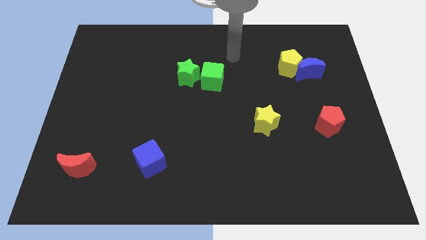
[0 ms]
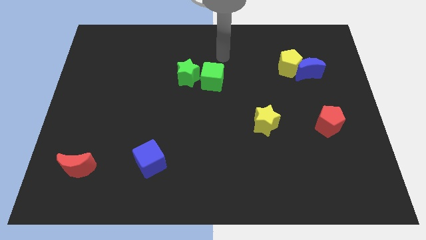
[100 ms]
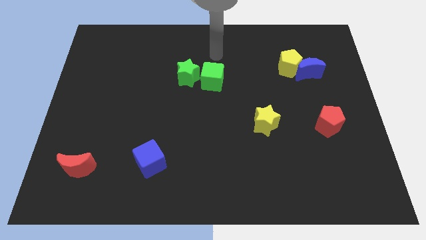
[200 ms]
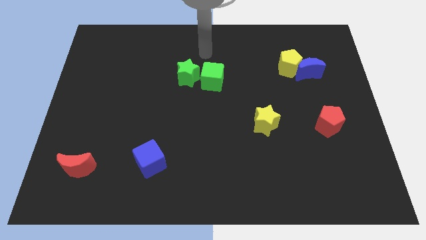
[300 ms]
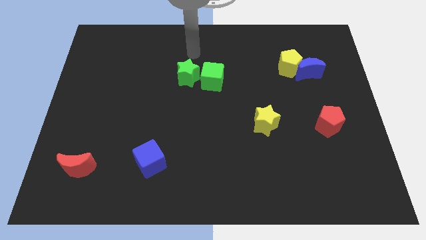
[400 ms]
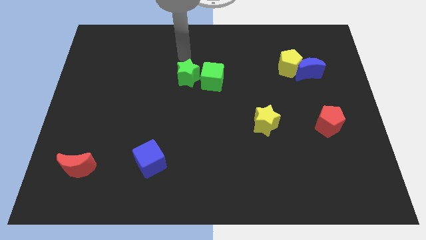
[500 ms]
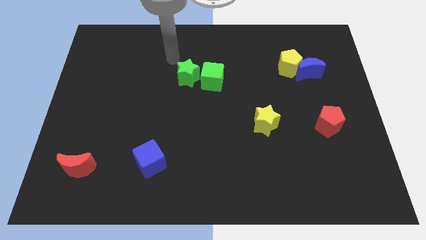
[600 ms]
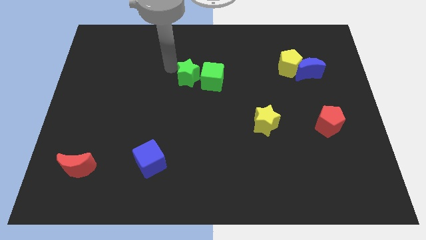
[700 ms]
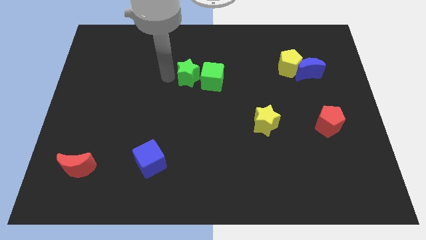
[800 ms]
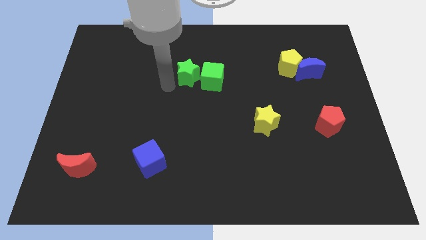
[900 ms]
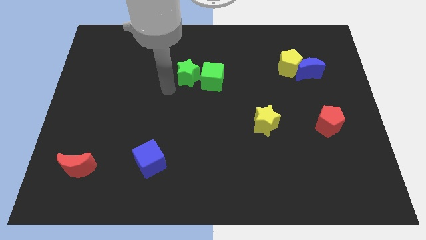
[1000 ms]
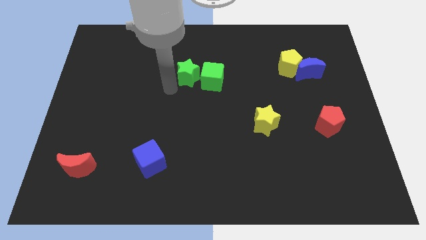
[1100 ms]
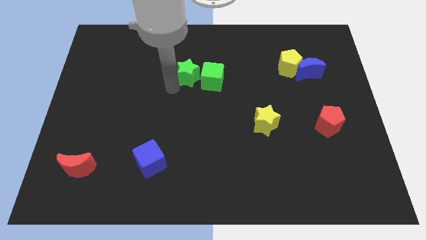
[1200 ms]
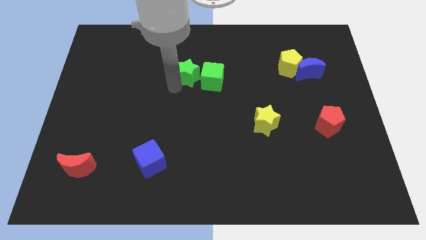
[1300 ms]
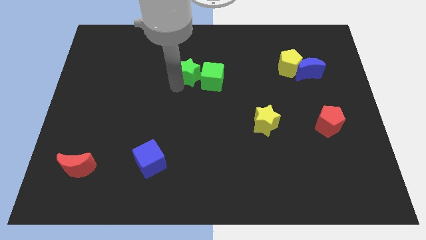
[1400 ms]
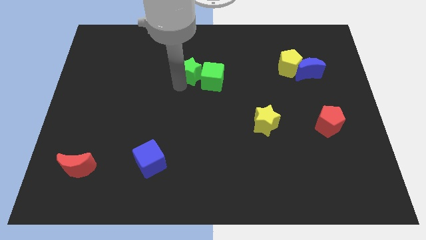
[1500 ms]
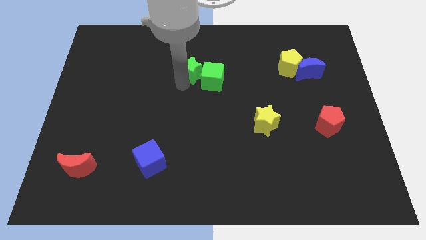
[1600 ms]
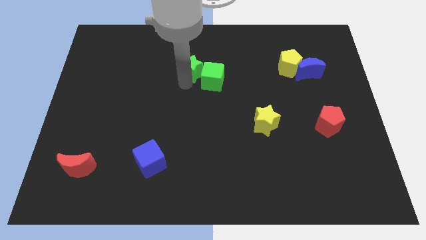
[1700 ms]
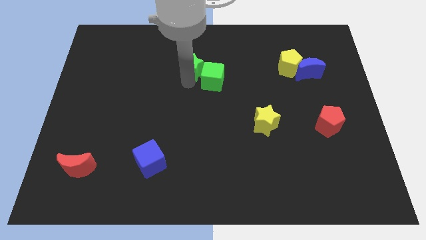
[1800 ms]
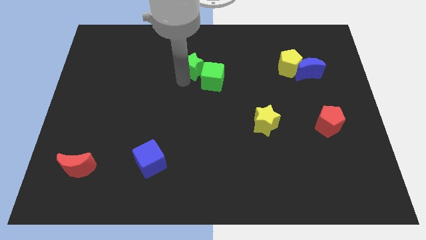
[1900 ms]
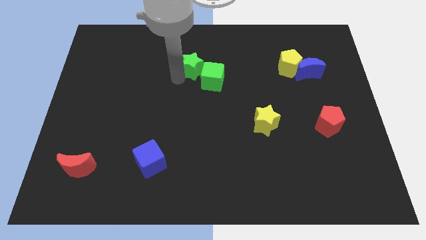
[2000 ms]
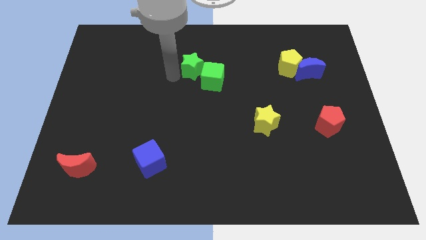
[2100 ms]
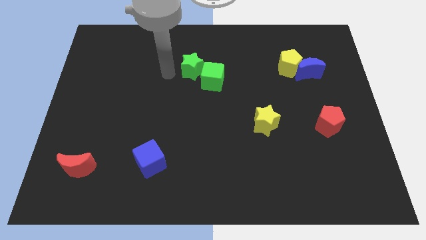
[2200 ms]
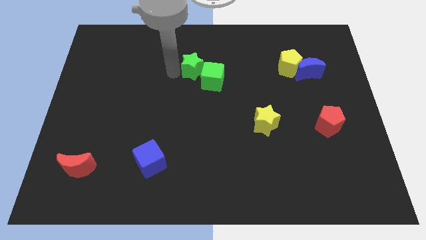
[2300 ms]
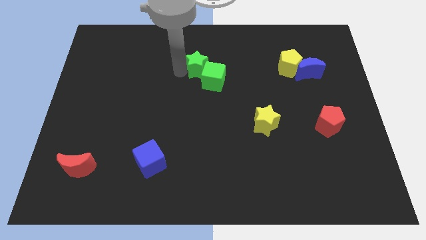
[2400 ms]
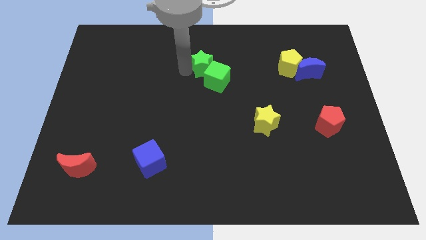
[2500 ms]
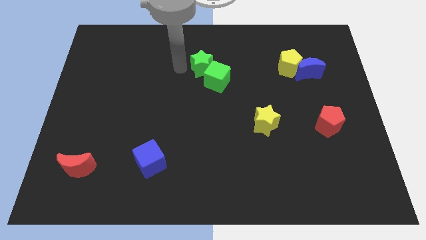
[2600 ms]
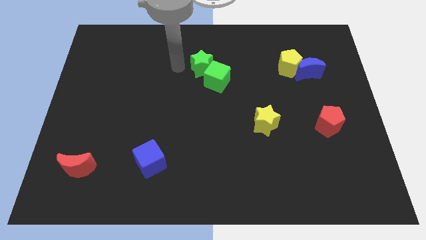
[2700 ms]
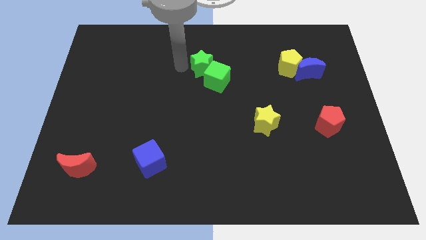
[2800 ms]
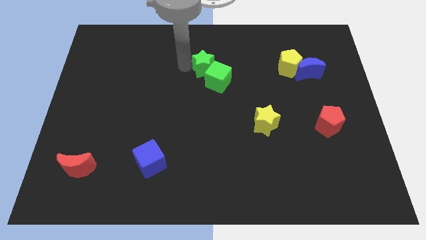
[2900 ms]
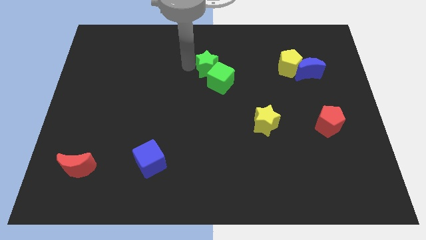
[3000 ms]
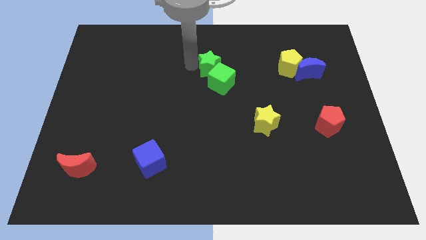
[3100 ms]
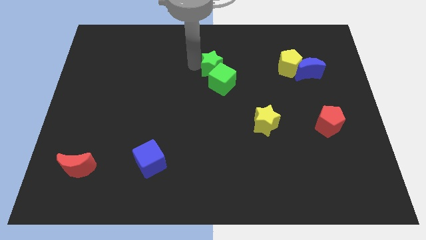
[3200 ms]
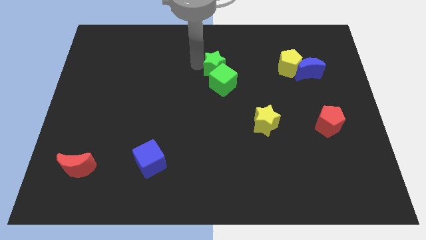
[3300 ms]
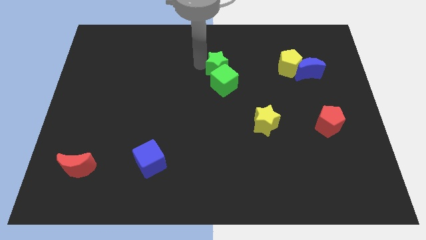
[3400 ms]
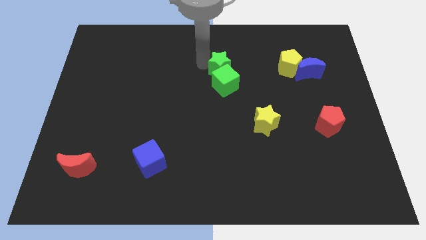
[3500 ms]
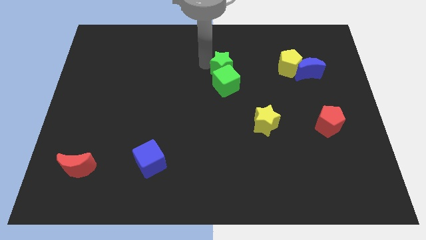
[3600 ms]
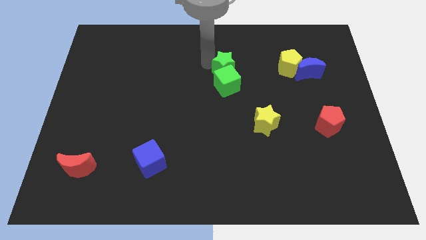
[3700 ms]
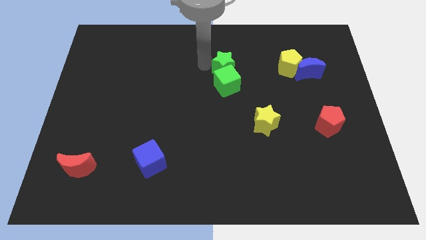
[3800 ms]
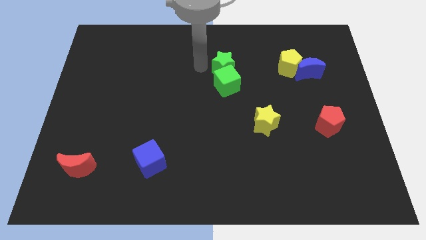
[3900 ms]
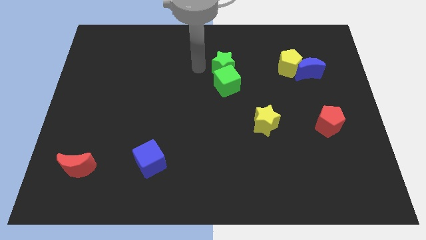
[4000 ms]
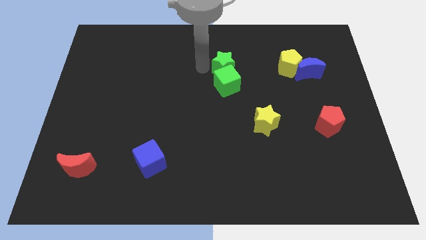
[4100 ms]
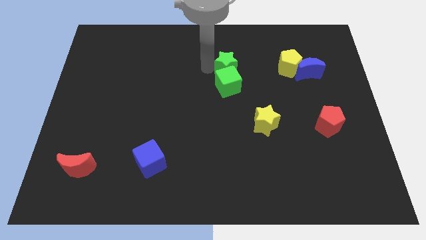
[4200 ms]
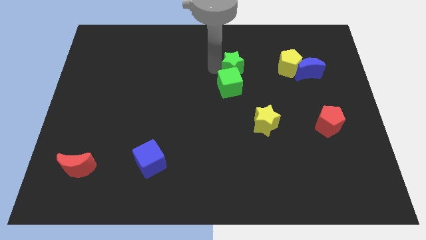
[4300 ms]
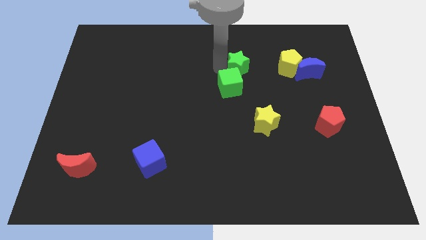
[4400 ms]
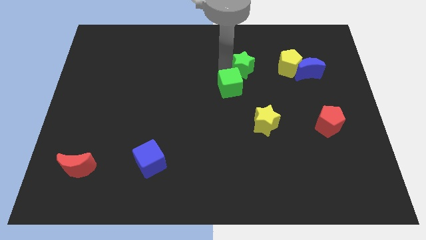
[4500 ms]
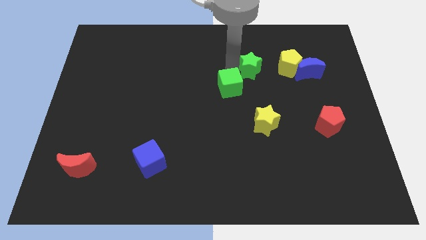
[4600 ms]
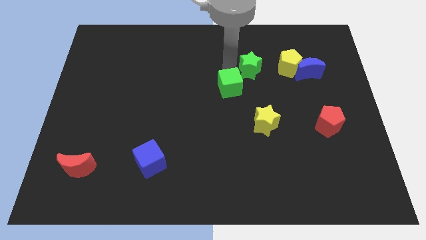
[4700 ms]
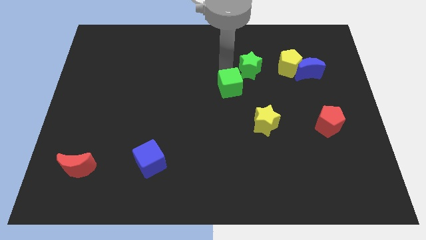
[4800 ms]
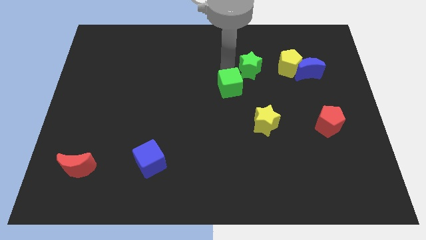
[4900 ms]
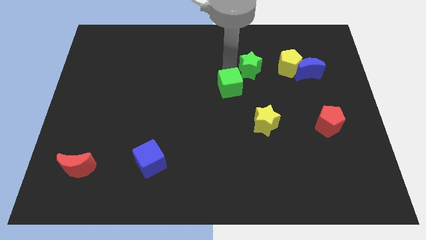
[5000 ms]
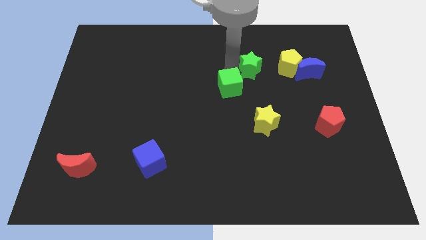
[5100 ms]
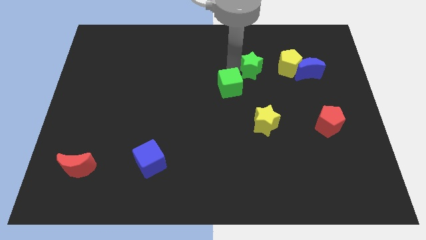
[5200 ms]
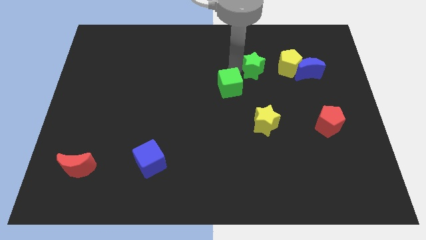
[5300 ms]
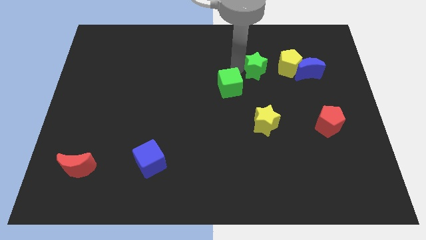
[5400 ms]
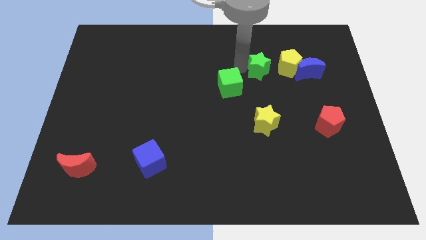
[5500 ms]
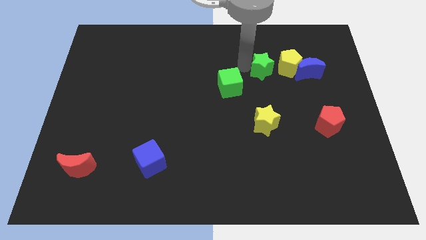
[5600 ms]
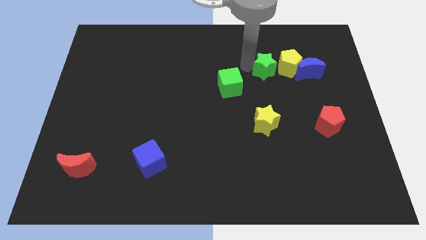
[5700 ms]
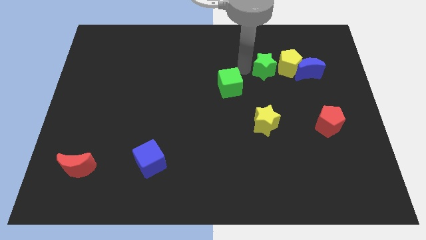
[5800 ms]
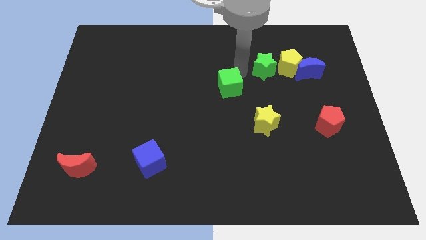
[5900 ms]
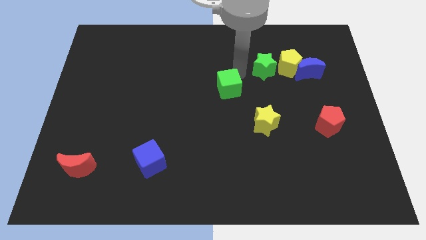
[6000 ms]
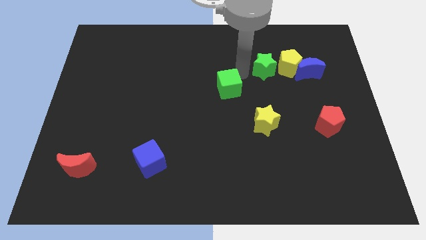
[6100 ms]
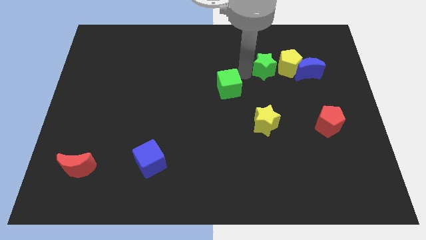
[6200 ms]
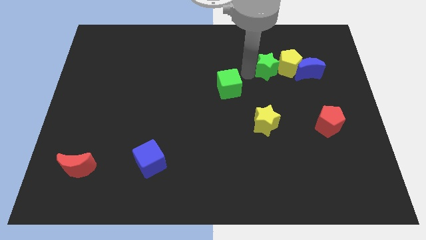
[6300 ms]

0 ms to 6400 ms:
put the green star next to the yellow pentagon

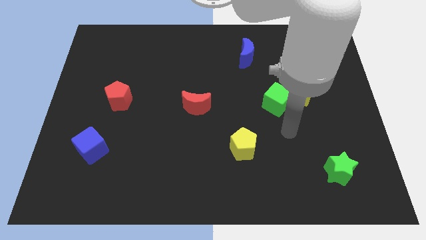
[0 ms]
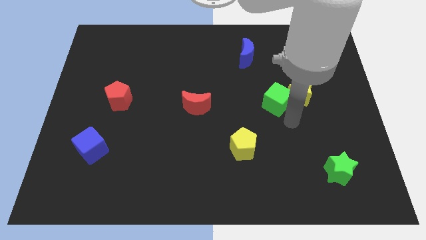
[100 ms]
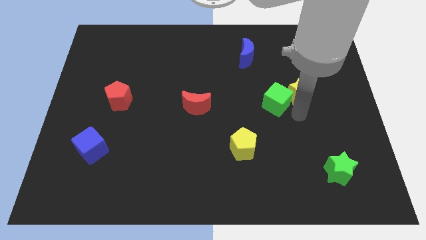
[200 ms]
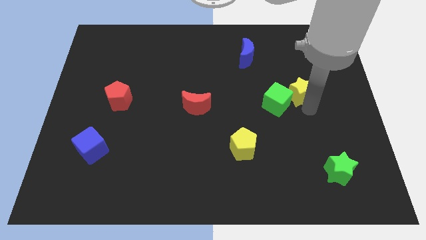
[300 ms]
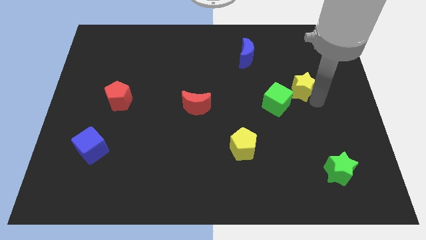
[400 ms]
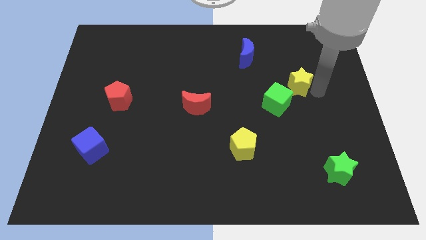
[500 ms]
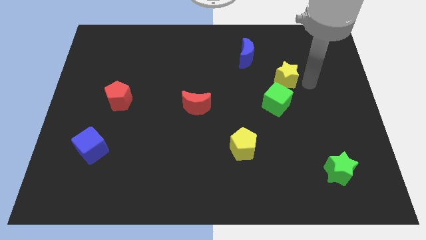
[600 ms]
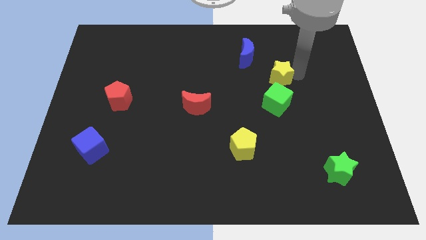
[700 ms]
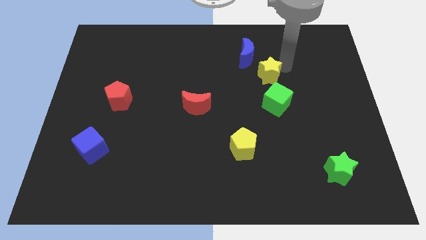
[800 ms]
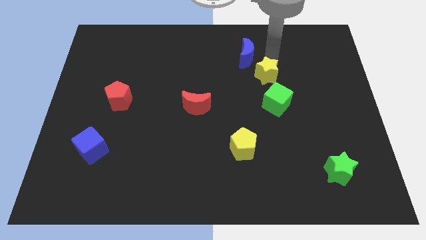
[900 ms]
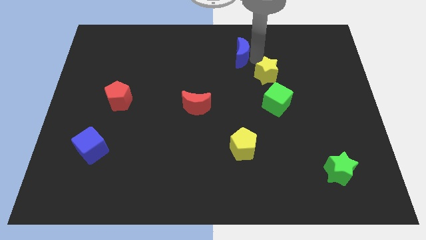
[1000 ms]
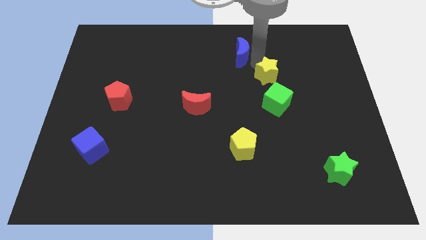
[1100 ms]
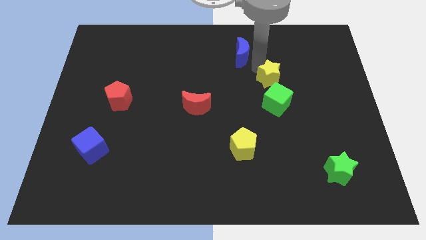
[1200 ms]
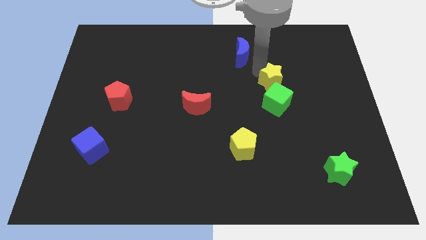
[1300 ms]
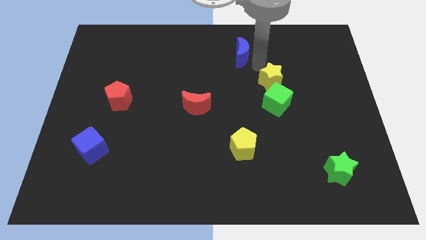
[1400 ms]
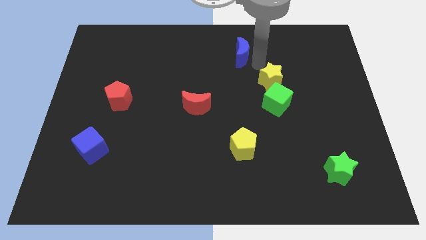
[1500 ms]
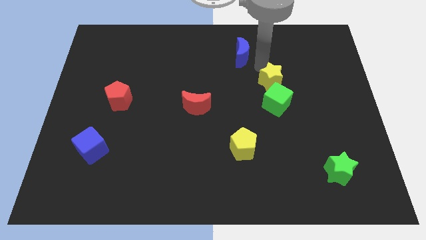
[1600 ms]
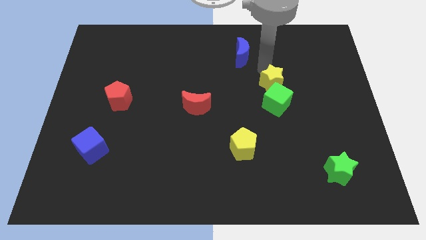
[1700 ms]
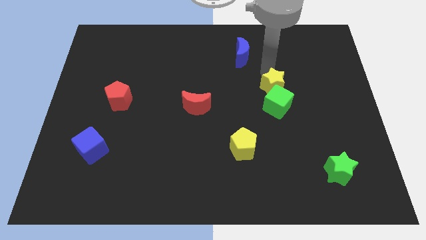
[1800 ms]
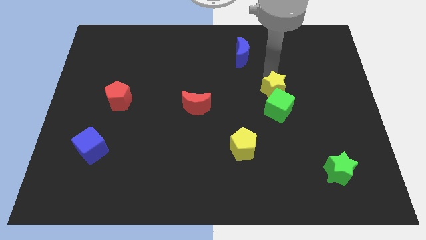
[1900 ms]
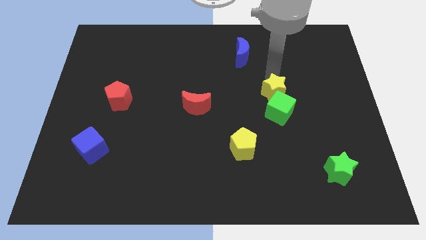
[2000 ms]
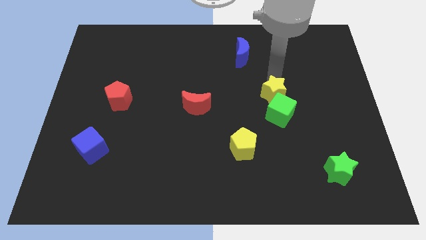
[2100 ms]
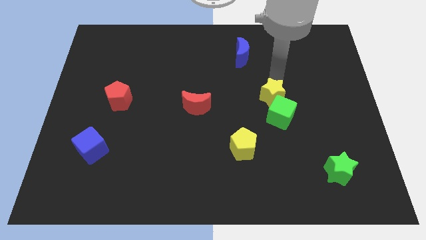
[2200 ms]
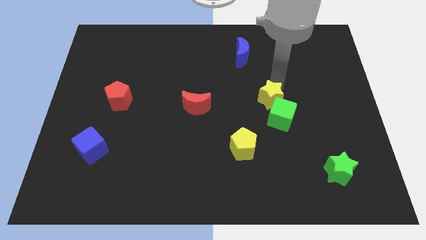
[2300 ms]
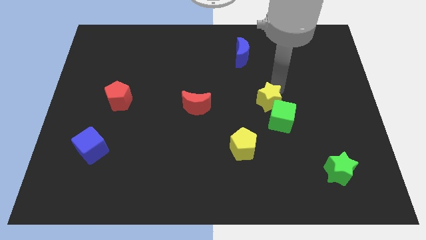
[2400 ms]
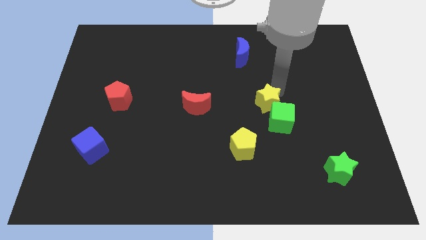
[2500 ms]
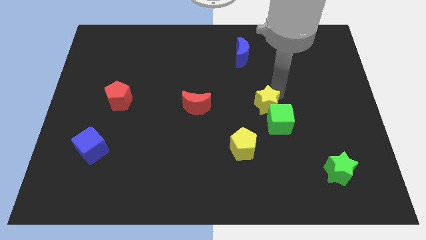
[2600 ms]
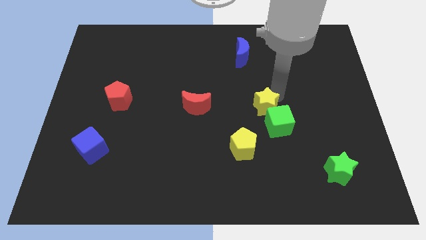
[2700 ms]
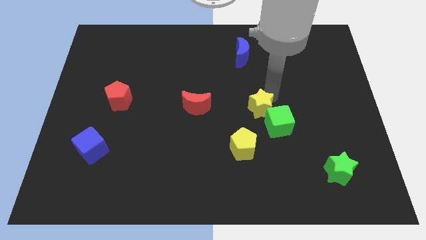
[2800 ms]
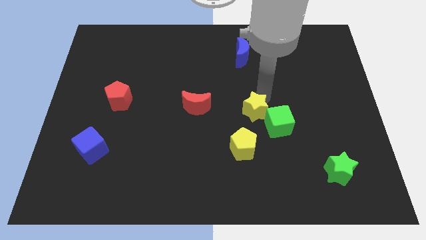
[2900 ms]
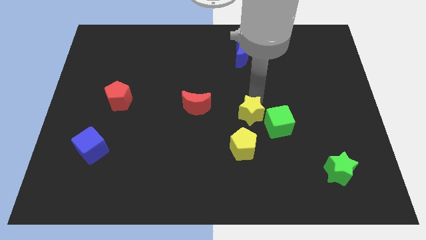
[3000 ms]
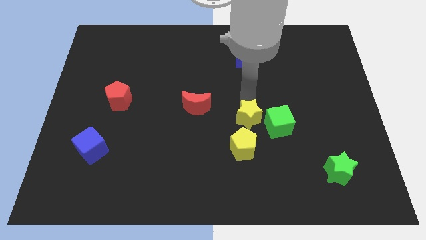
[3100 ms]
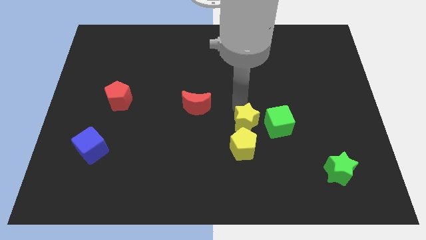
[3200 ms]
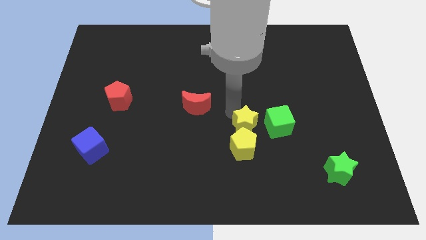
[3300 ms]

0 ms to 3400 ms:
slide the yellow star to the yellow pentagon
